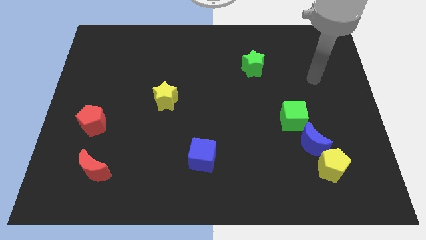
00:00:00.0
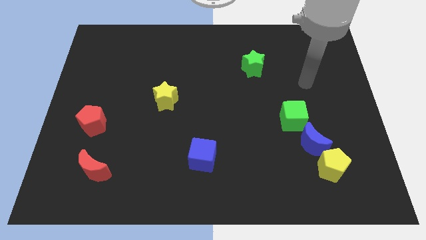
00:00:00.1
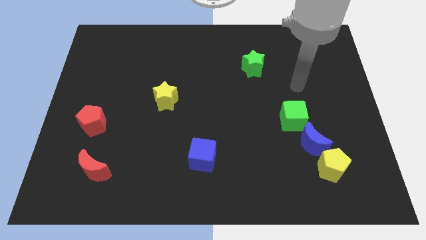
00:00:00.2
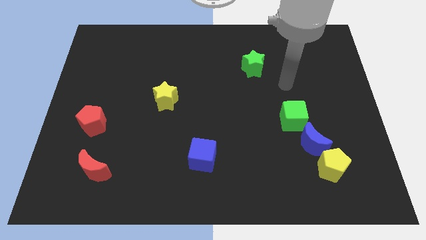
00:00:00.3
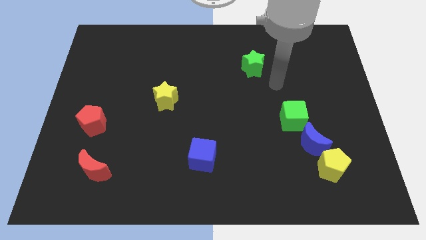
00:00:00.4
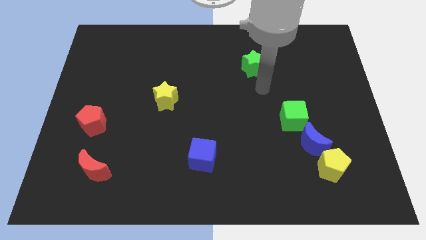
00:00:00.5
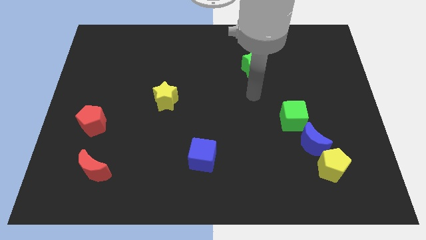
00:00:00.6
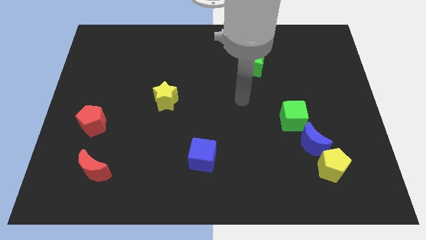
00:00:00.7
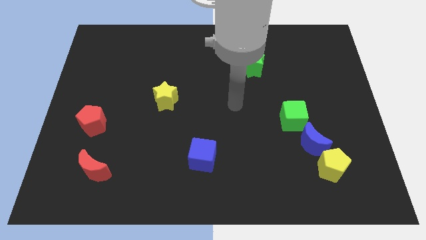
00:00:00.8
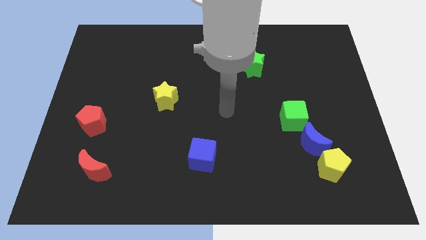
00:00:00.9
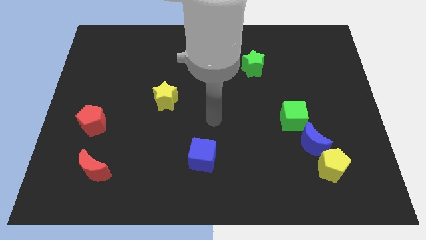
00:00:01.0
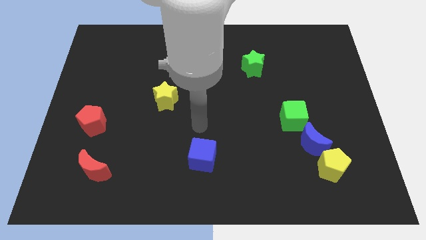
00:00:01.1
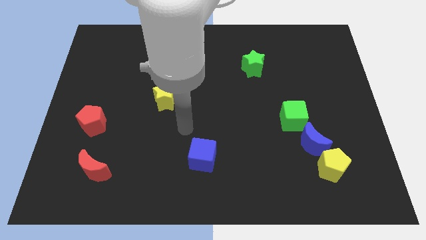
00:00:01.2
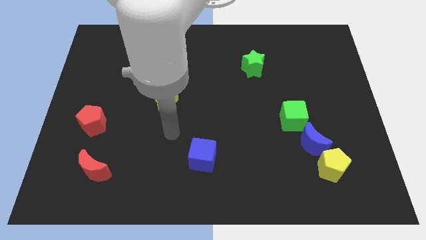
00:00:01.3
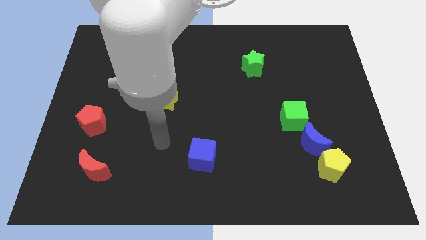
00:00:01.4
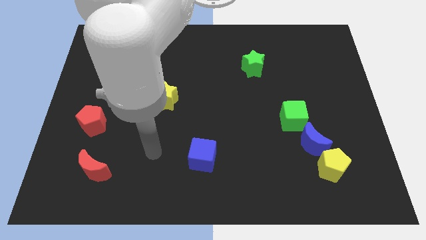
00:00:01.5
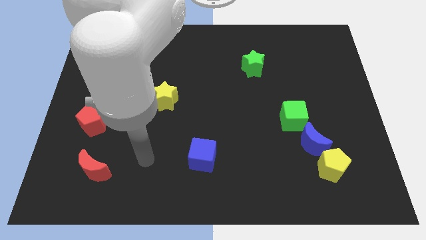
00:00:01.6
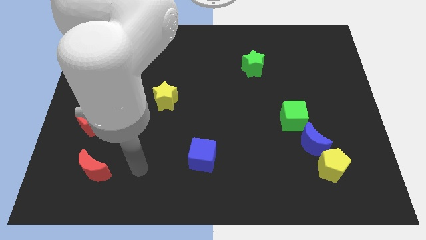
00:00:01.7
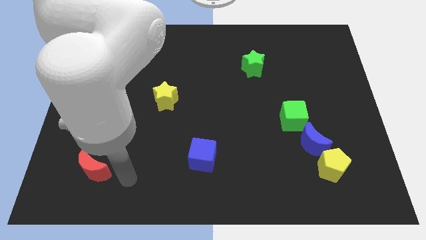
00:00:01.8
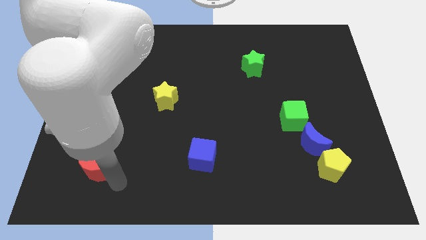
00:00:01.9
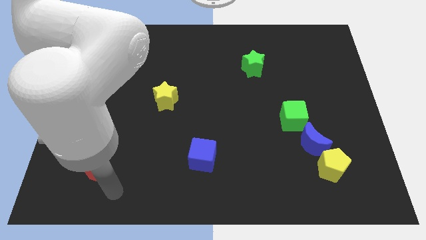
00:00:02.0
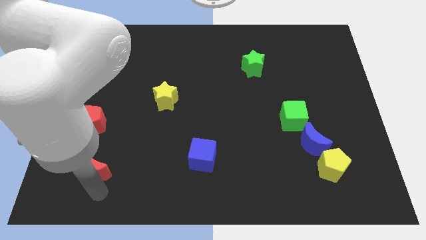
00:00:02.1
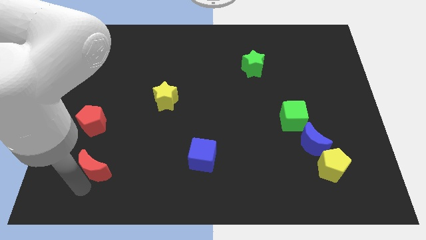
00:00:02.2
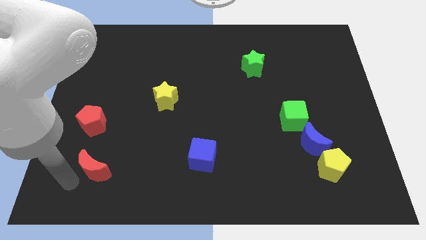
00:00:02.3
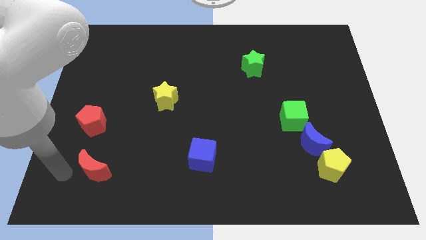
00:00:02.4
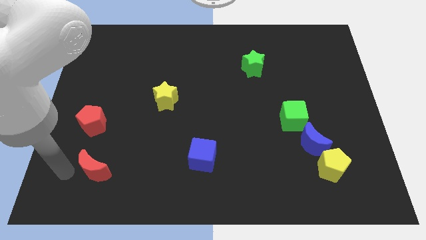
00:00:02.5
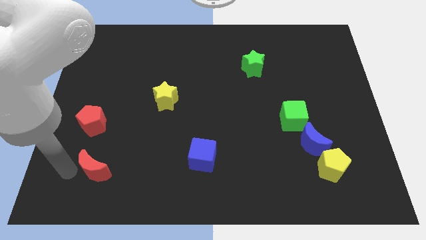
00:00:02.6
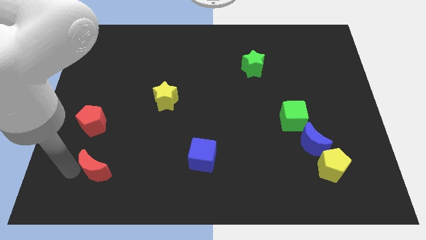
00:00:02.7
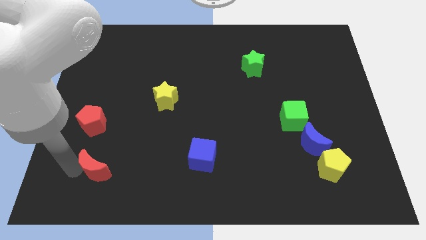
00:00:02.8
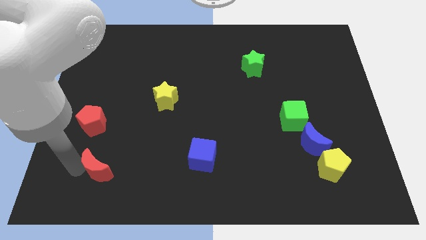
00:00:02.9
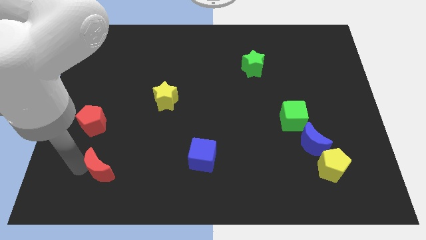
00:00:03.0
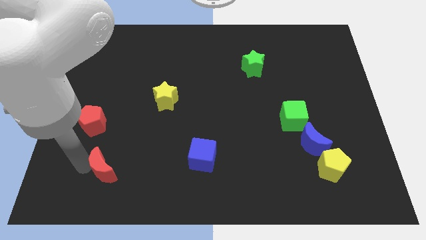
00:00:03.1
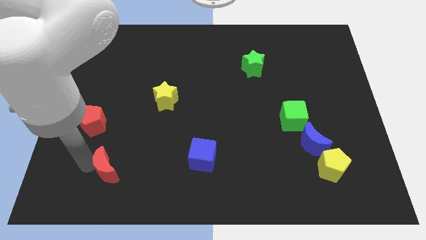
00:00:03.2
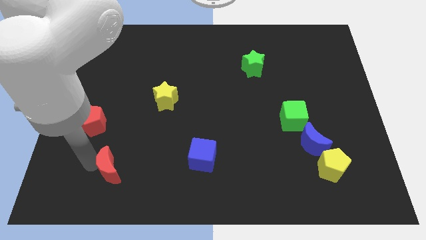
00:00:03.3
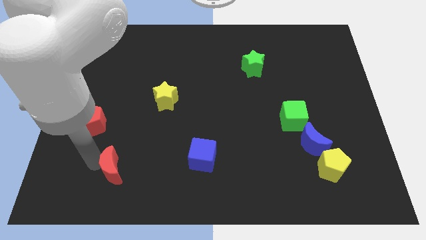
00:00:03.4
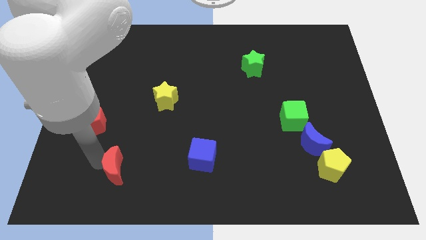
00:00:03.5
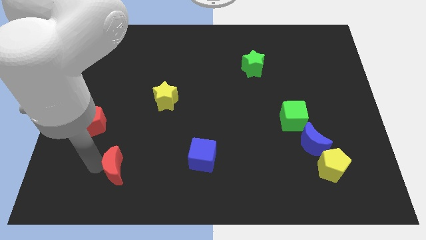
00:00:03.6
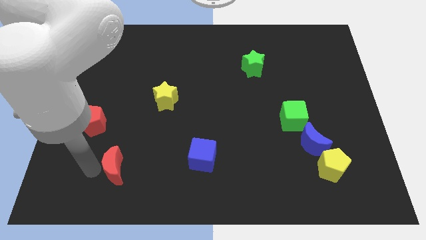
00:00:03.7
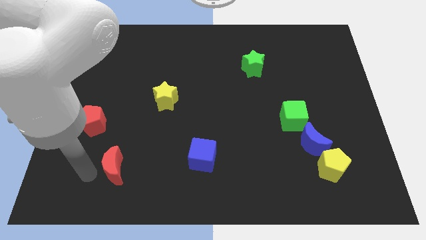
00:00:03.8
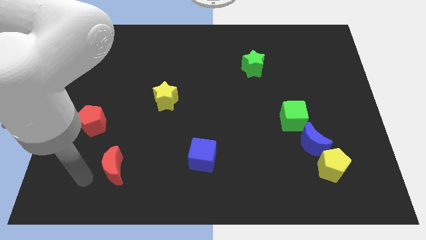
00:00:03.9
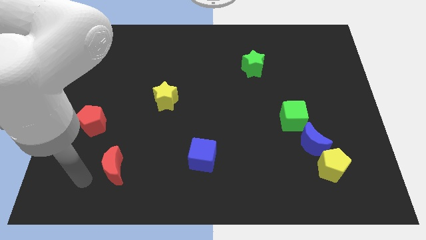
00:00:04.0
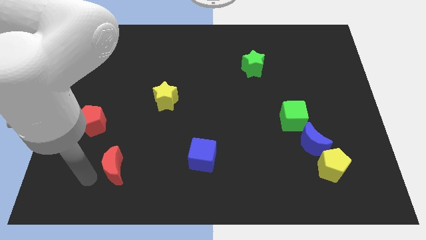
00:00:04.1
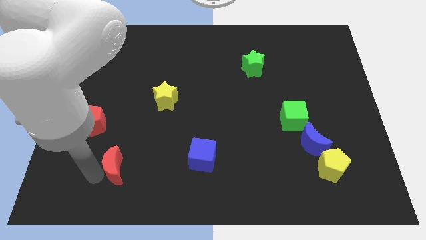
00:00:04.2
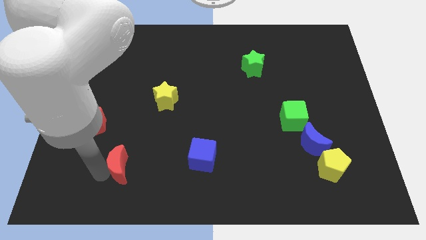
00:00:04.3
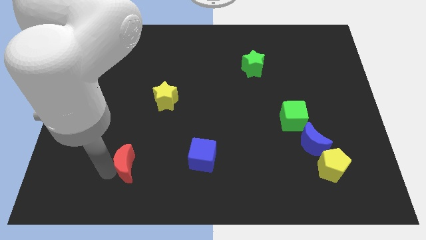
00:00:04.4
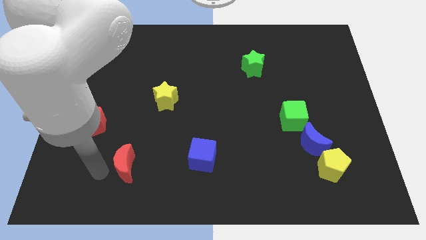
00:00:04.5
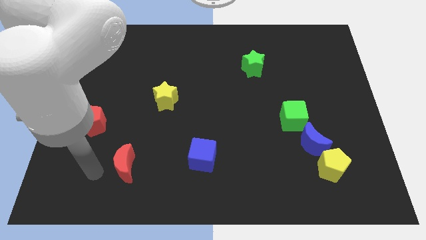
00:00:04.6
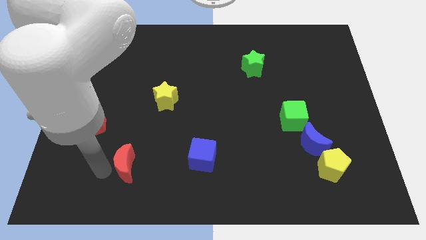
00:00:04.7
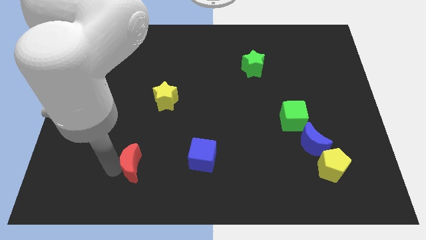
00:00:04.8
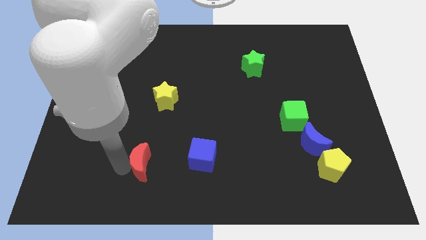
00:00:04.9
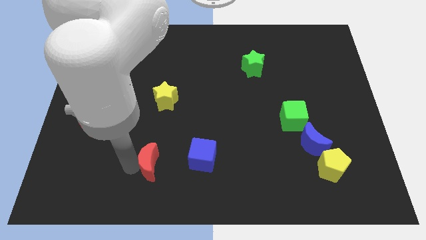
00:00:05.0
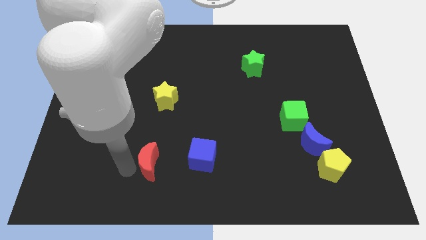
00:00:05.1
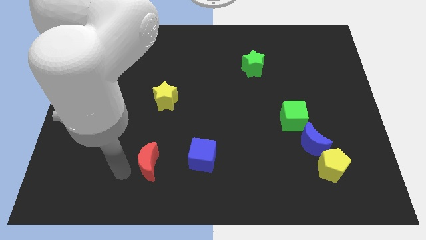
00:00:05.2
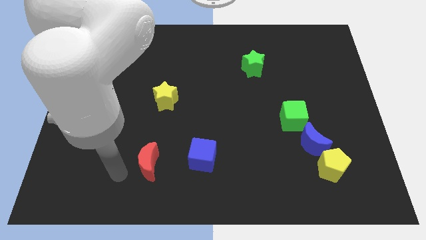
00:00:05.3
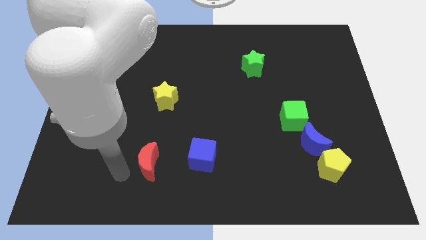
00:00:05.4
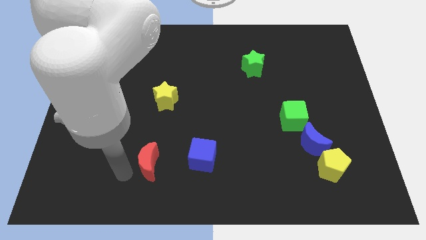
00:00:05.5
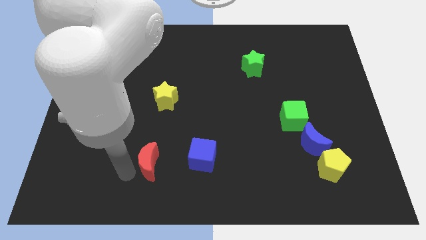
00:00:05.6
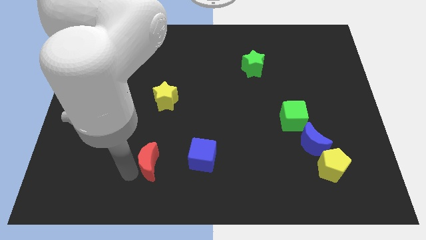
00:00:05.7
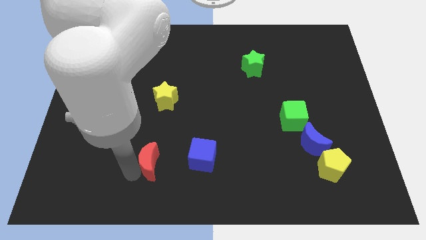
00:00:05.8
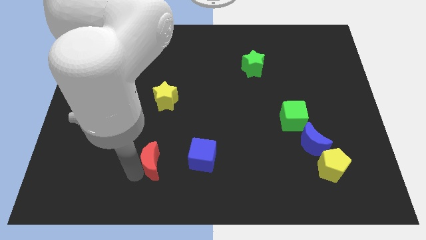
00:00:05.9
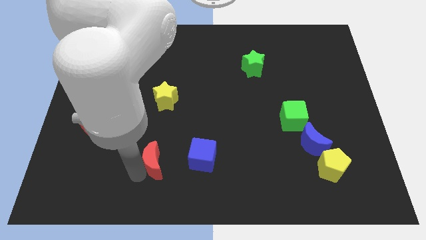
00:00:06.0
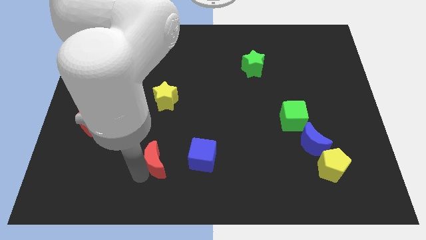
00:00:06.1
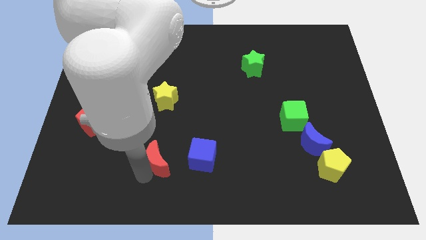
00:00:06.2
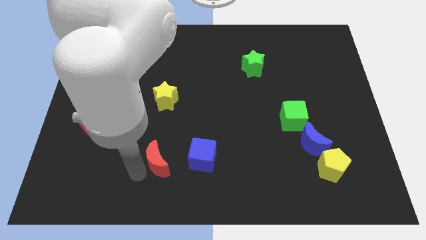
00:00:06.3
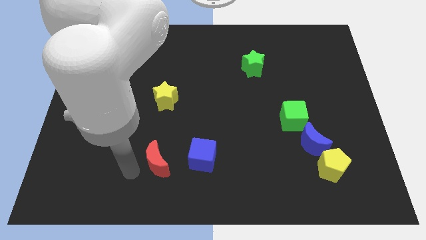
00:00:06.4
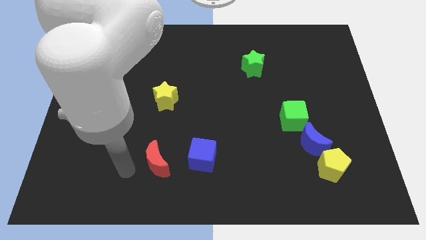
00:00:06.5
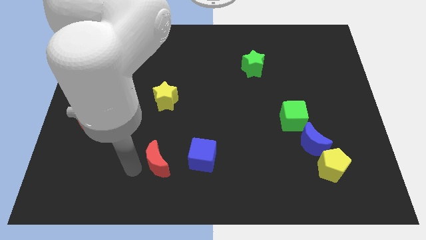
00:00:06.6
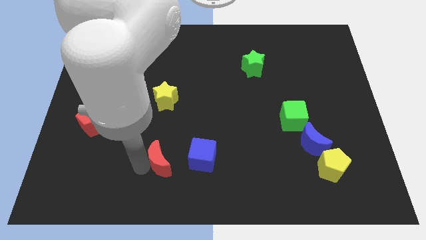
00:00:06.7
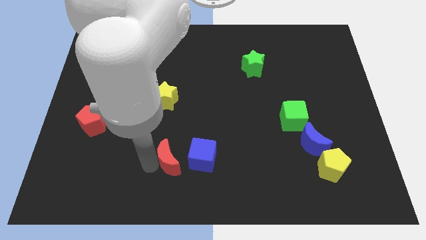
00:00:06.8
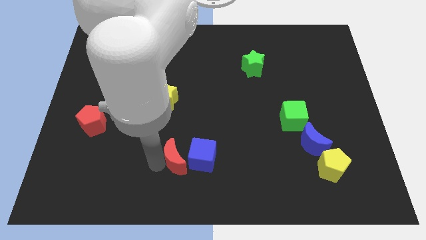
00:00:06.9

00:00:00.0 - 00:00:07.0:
slide the red moon towards the blue cube
